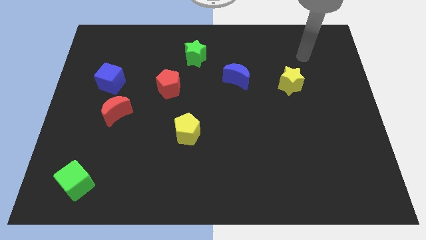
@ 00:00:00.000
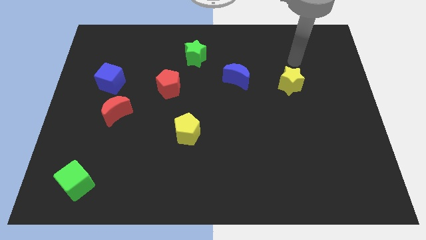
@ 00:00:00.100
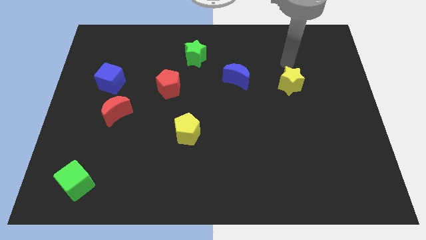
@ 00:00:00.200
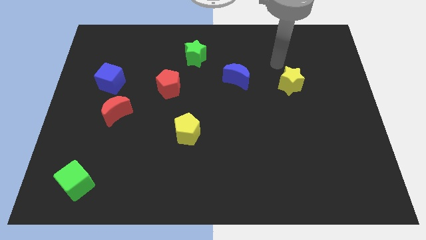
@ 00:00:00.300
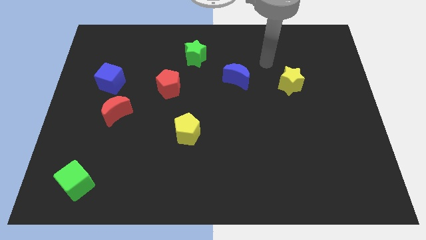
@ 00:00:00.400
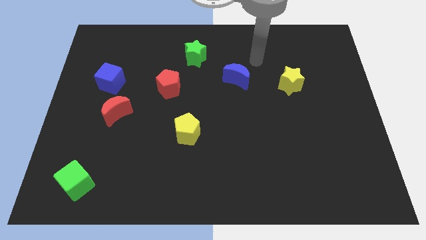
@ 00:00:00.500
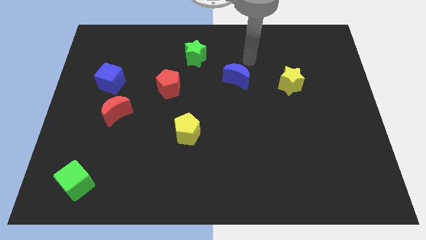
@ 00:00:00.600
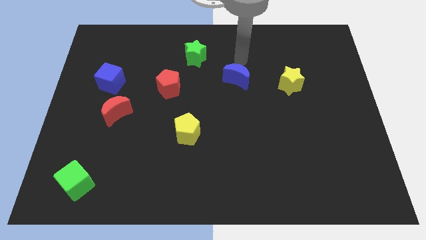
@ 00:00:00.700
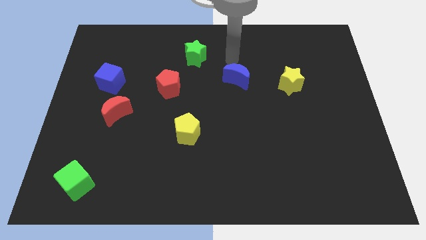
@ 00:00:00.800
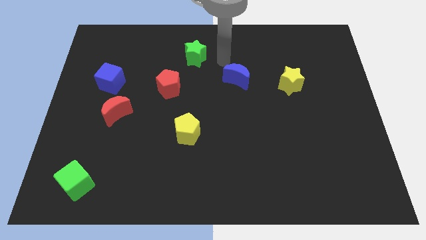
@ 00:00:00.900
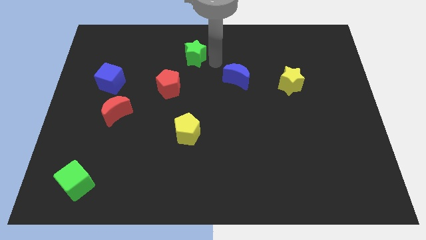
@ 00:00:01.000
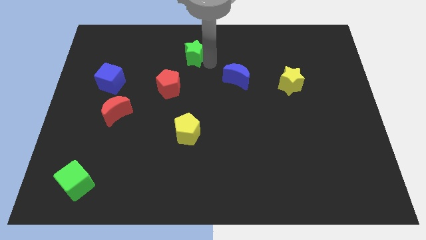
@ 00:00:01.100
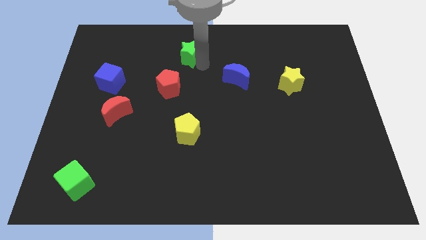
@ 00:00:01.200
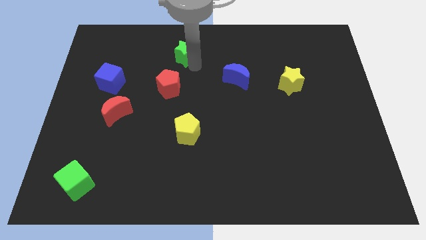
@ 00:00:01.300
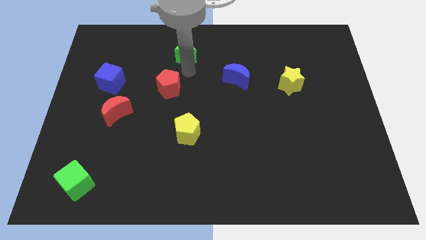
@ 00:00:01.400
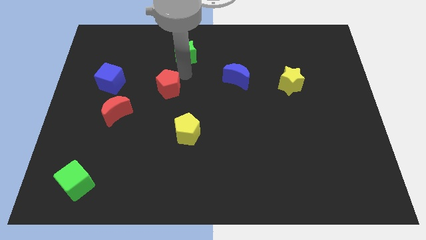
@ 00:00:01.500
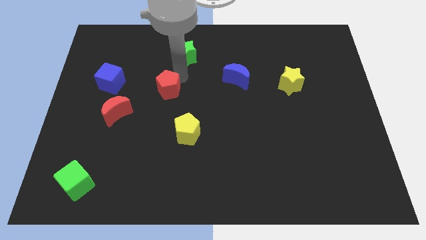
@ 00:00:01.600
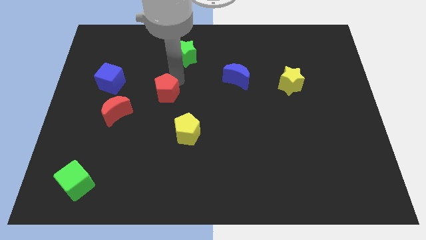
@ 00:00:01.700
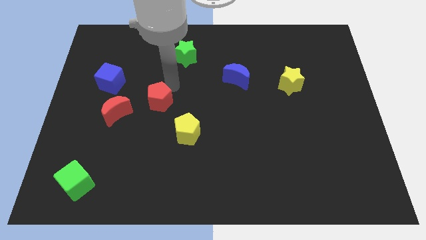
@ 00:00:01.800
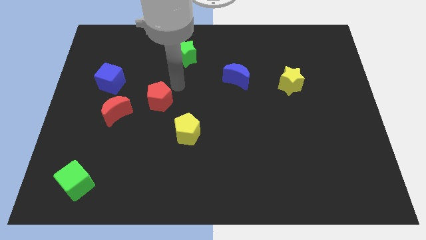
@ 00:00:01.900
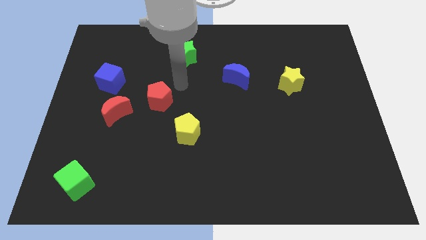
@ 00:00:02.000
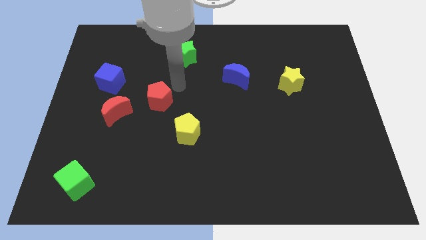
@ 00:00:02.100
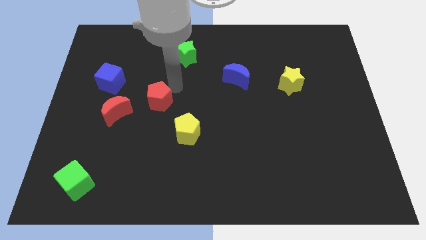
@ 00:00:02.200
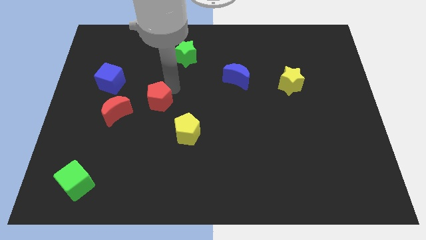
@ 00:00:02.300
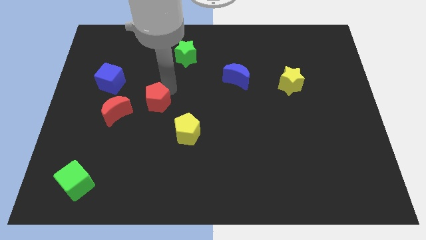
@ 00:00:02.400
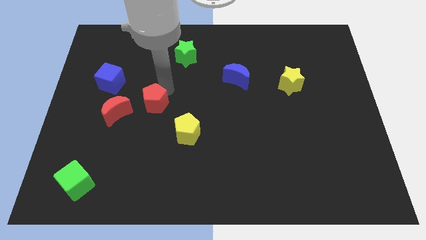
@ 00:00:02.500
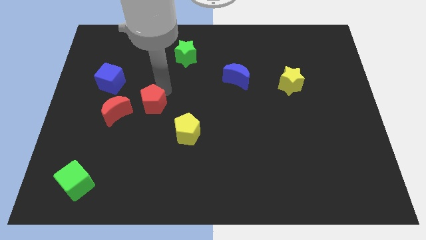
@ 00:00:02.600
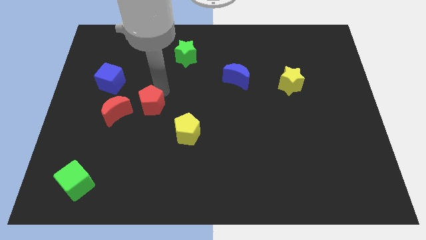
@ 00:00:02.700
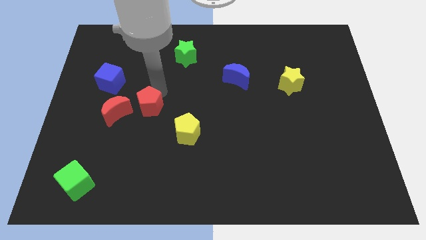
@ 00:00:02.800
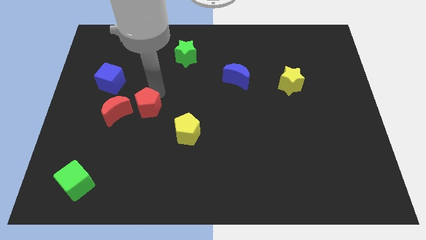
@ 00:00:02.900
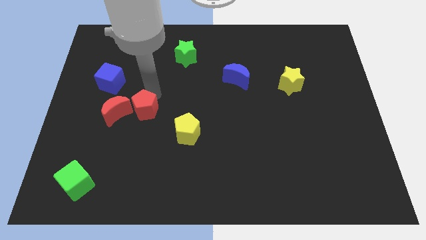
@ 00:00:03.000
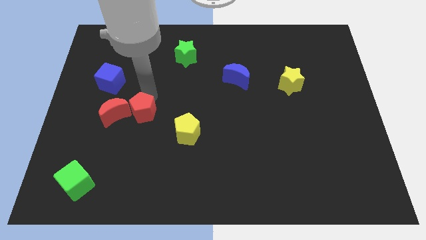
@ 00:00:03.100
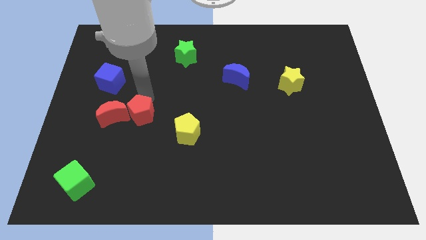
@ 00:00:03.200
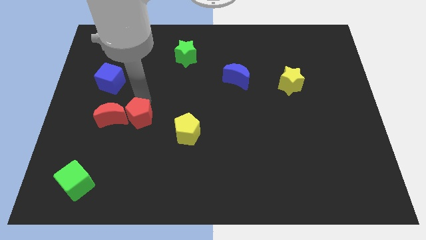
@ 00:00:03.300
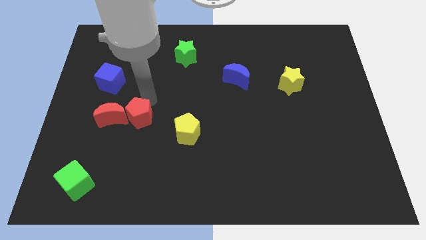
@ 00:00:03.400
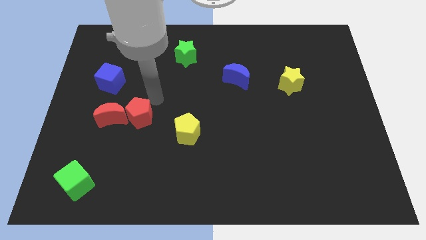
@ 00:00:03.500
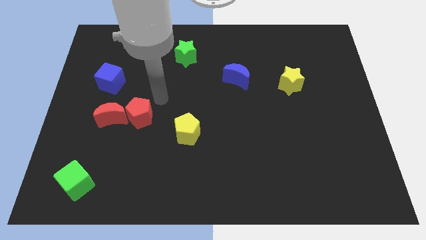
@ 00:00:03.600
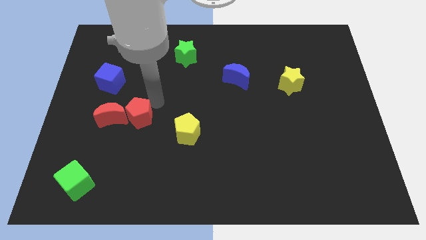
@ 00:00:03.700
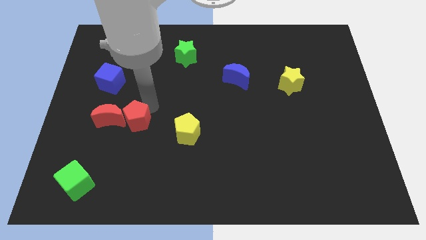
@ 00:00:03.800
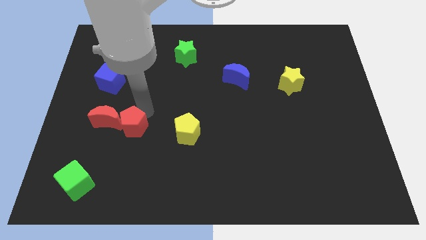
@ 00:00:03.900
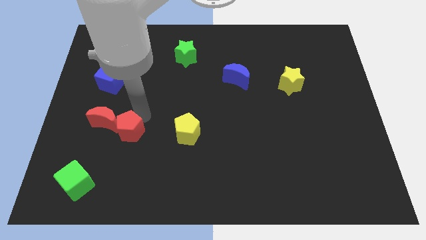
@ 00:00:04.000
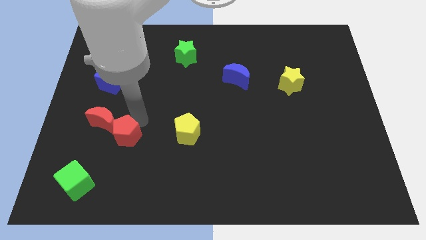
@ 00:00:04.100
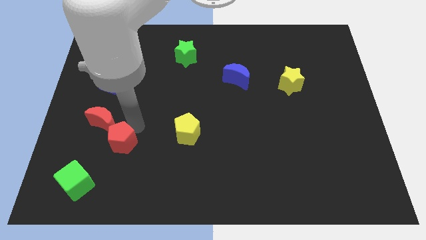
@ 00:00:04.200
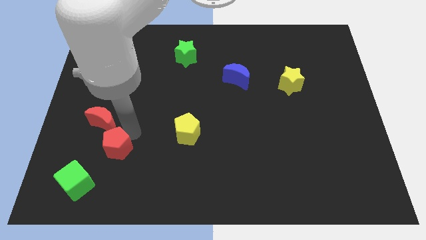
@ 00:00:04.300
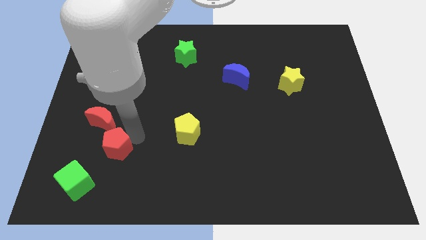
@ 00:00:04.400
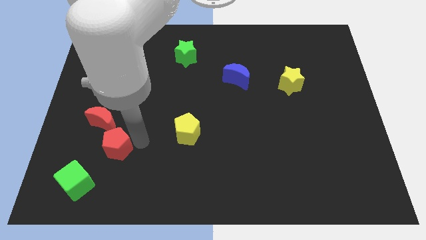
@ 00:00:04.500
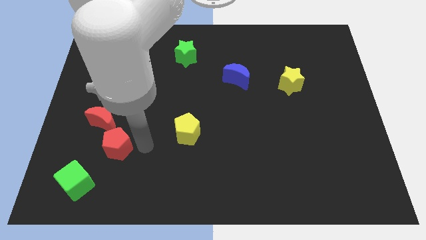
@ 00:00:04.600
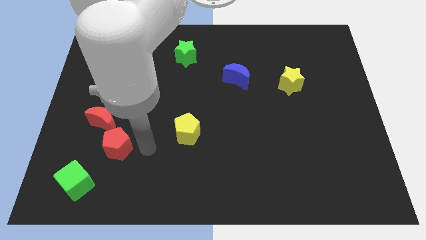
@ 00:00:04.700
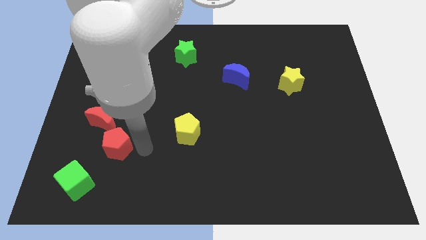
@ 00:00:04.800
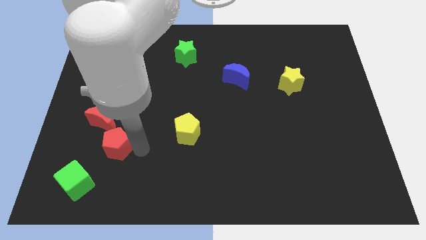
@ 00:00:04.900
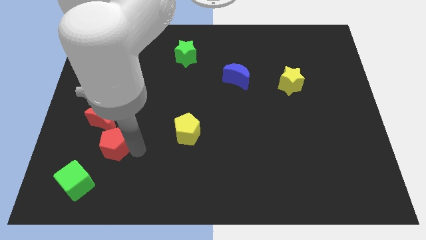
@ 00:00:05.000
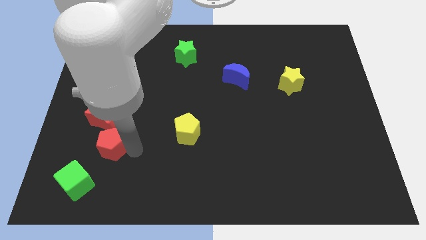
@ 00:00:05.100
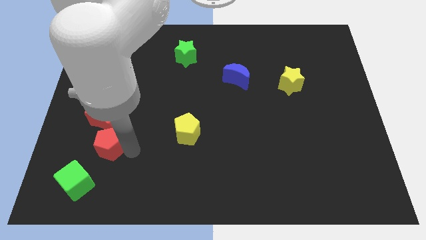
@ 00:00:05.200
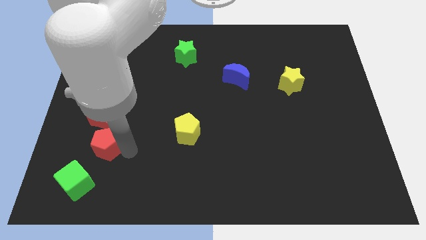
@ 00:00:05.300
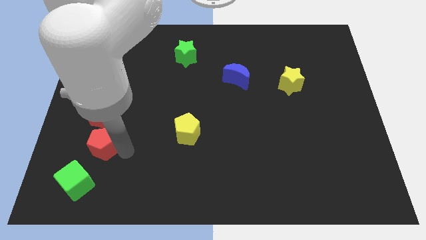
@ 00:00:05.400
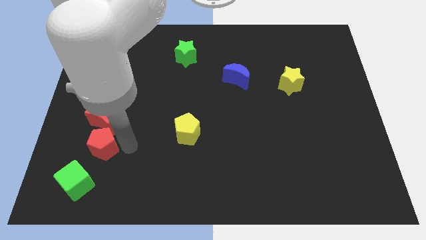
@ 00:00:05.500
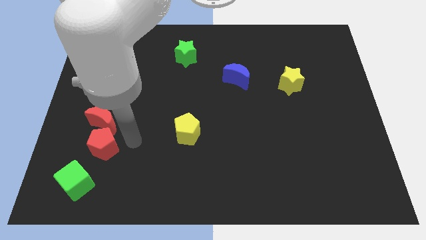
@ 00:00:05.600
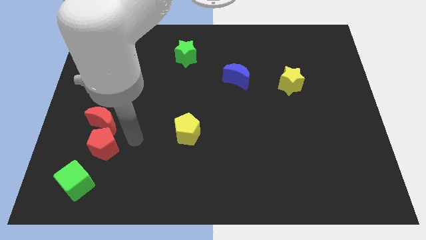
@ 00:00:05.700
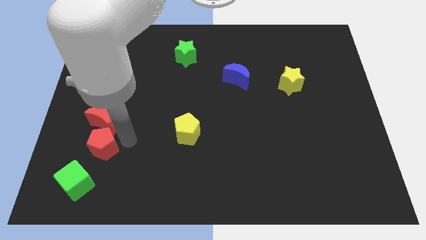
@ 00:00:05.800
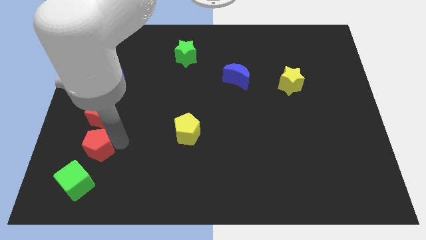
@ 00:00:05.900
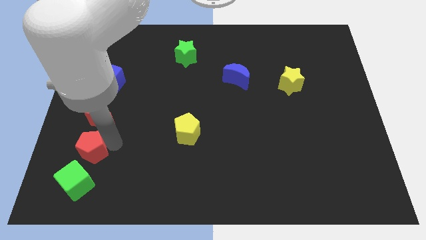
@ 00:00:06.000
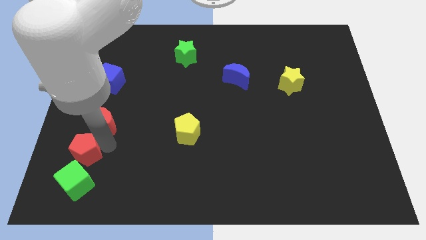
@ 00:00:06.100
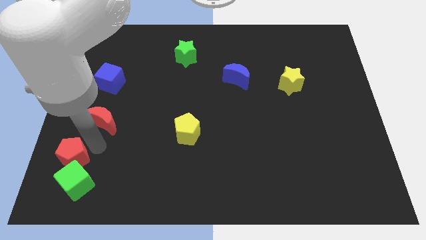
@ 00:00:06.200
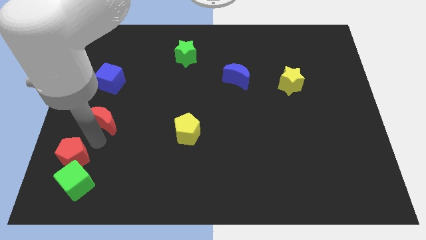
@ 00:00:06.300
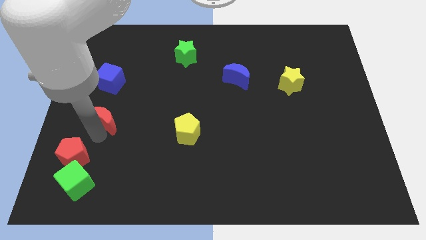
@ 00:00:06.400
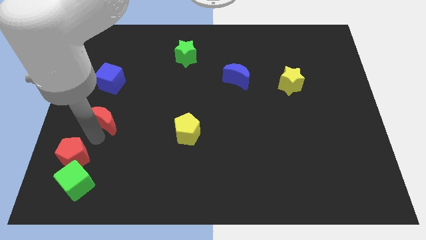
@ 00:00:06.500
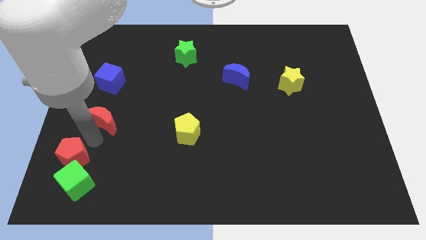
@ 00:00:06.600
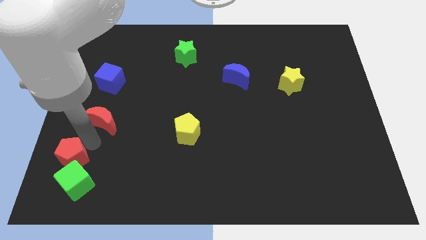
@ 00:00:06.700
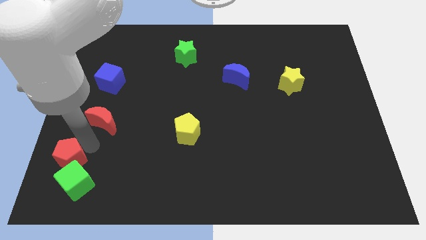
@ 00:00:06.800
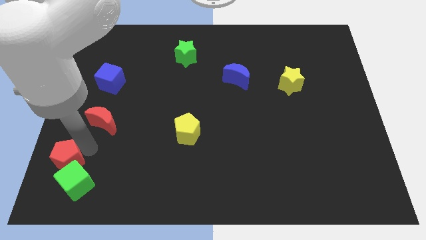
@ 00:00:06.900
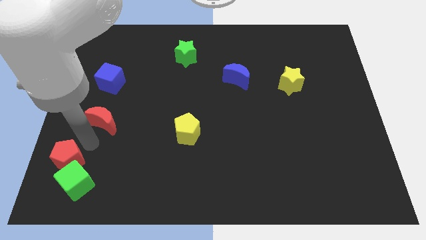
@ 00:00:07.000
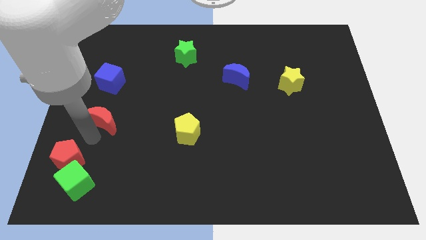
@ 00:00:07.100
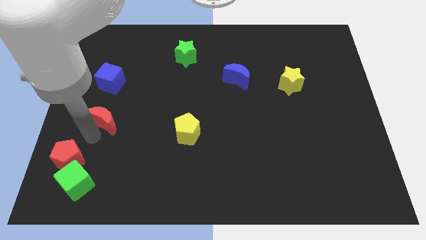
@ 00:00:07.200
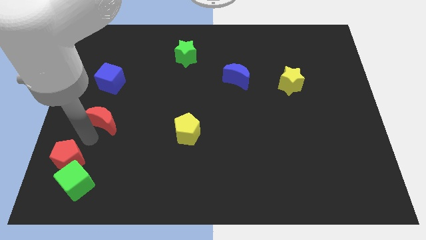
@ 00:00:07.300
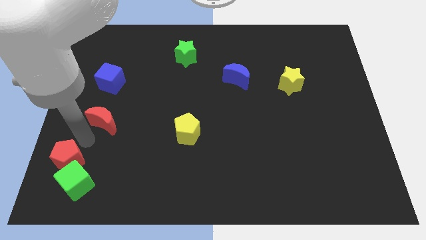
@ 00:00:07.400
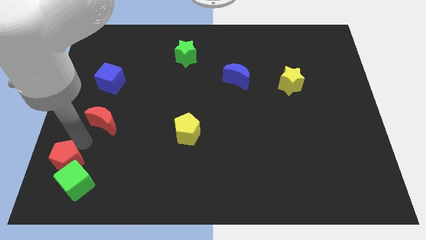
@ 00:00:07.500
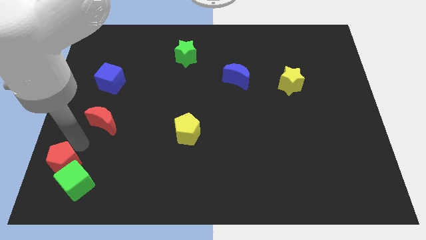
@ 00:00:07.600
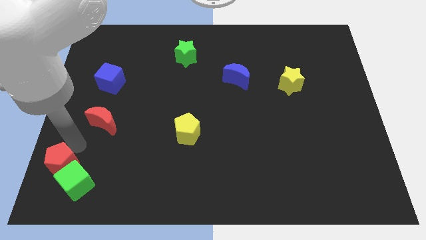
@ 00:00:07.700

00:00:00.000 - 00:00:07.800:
slide the red pentagon to the bottom left
